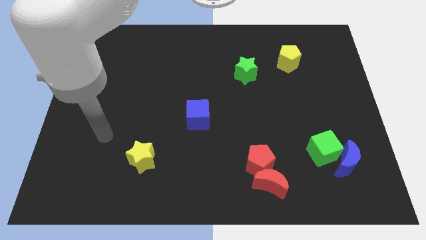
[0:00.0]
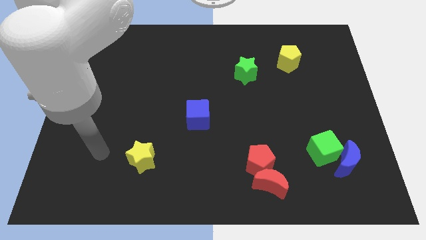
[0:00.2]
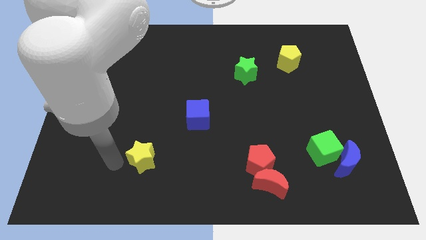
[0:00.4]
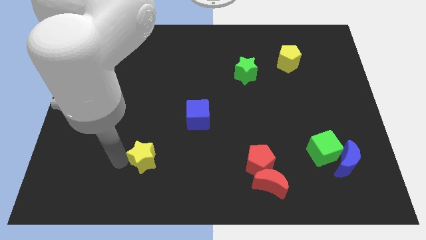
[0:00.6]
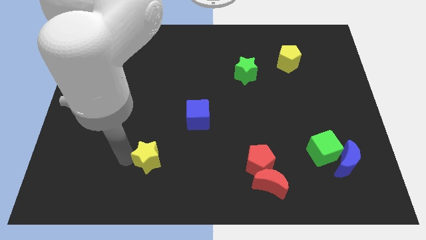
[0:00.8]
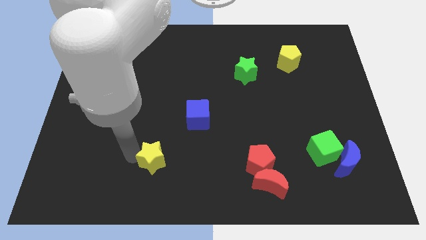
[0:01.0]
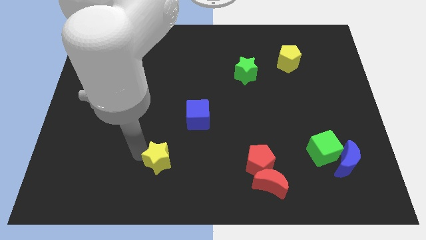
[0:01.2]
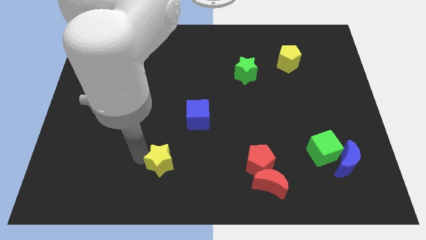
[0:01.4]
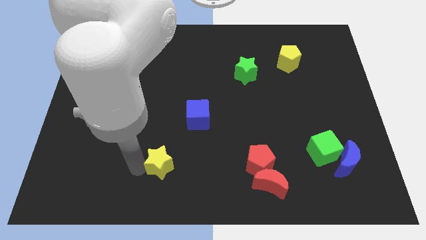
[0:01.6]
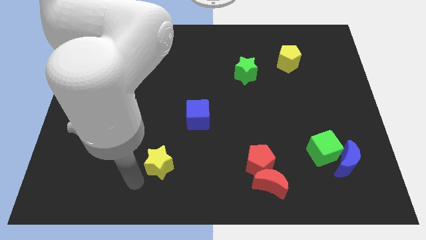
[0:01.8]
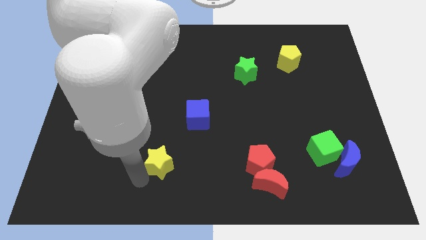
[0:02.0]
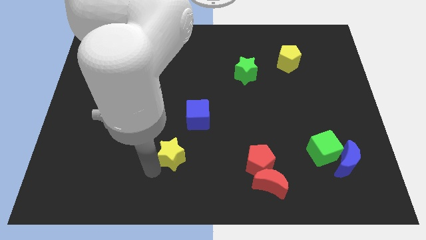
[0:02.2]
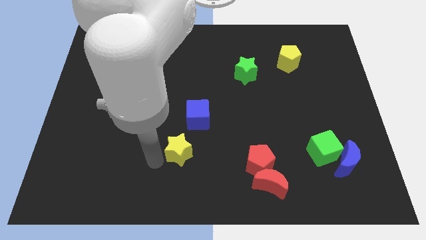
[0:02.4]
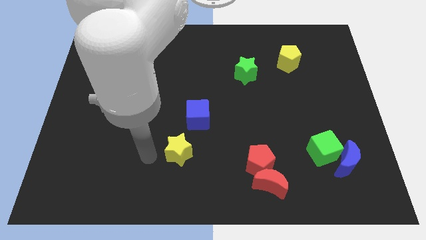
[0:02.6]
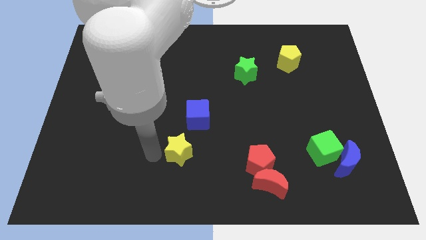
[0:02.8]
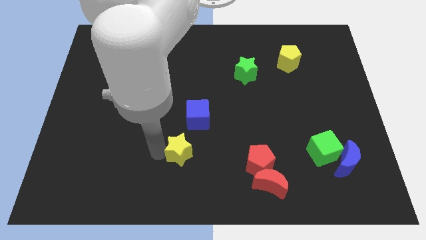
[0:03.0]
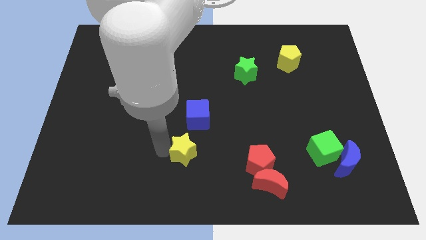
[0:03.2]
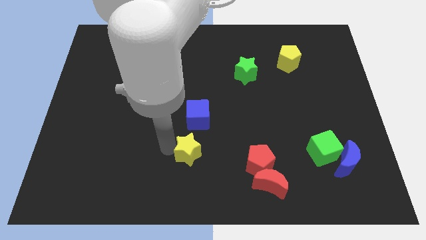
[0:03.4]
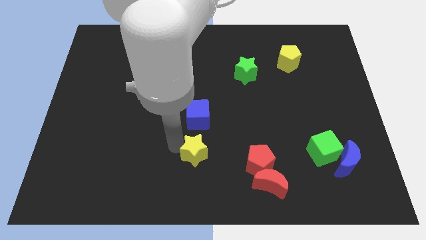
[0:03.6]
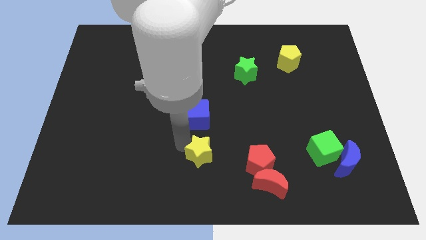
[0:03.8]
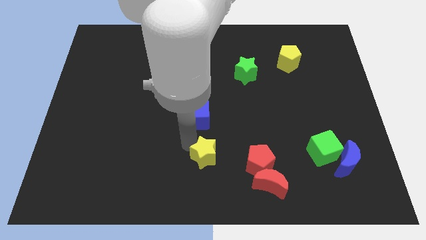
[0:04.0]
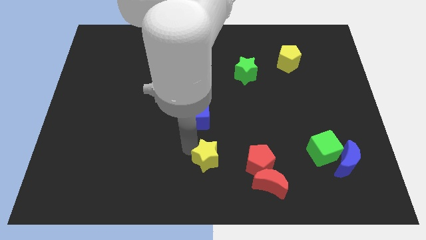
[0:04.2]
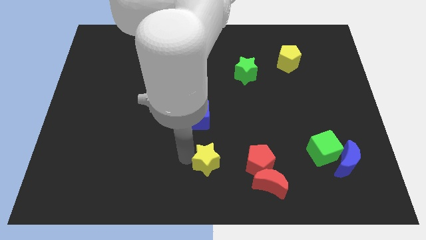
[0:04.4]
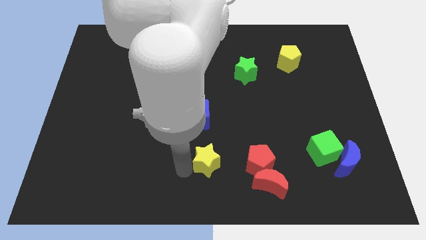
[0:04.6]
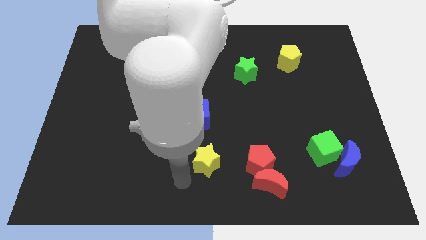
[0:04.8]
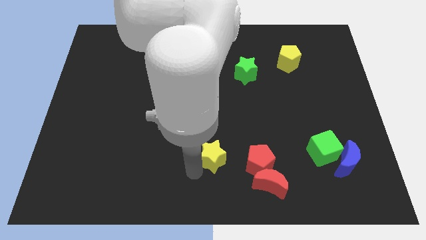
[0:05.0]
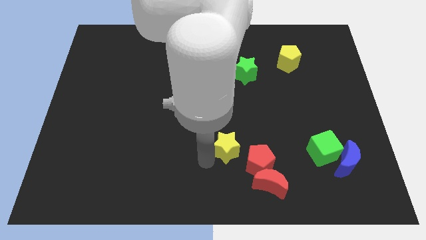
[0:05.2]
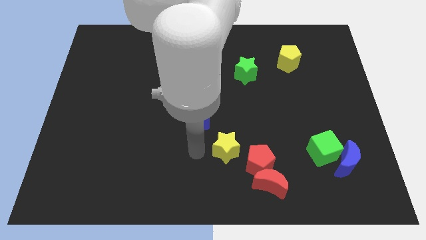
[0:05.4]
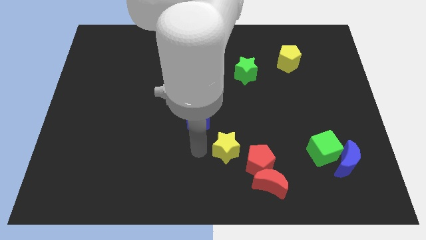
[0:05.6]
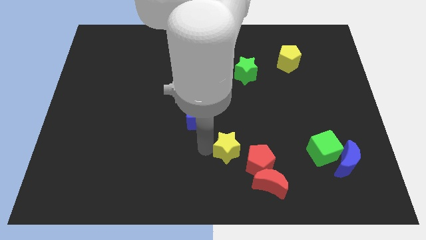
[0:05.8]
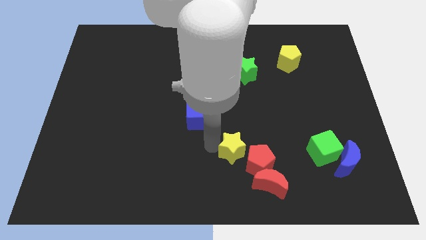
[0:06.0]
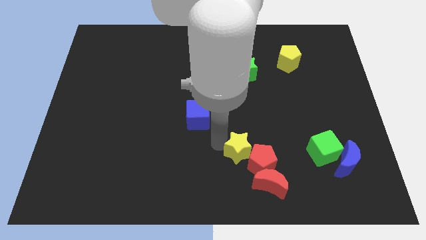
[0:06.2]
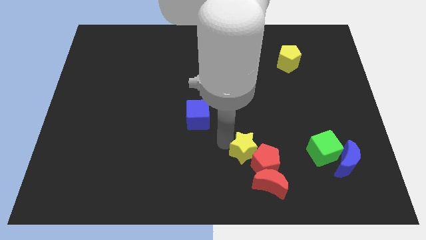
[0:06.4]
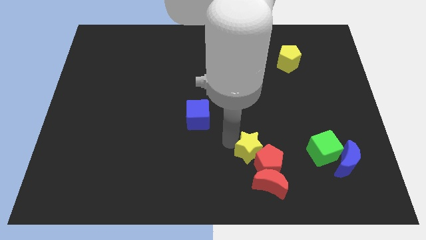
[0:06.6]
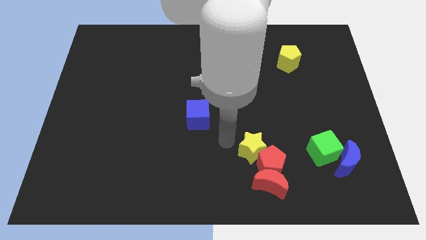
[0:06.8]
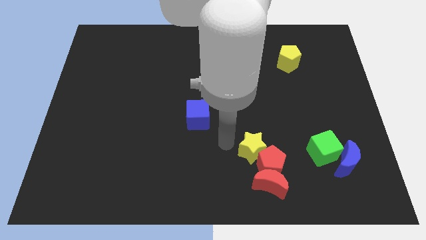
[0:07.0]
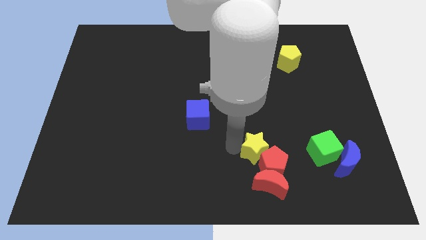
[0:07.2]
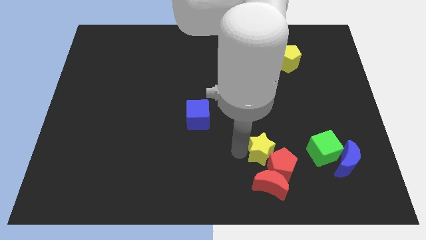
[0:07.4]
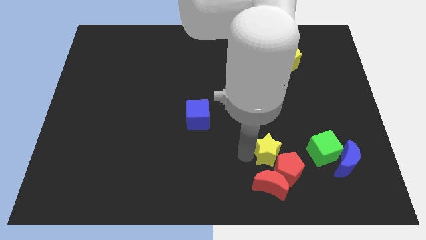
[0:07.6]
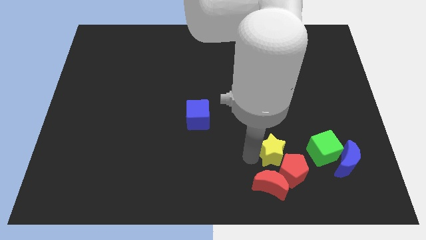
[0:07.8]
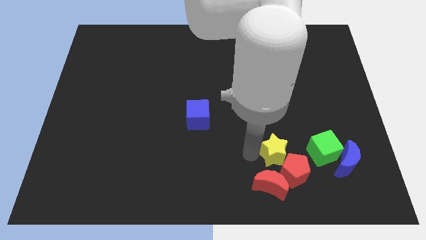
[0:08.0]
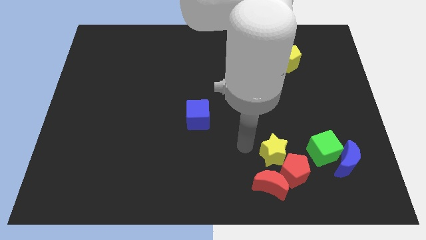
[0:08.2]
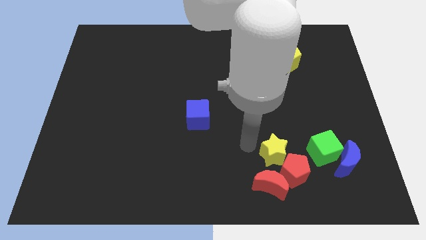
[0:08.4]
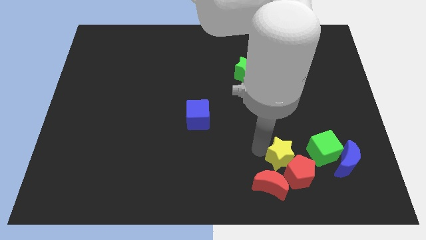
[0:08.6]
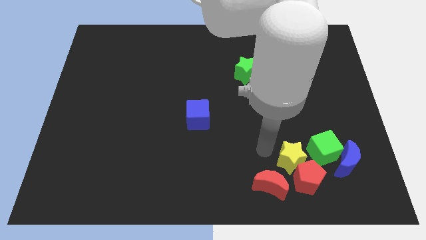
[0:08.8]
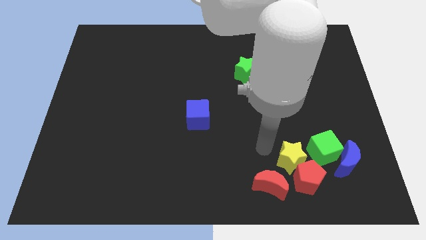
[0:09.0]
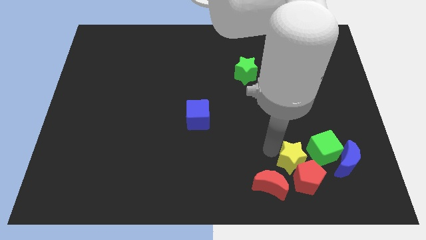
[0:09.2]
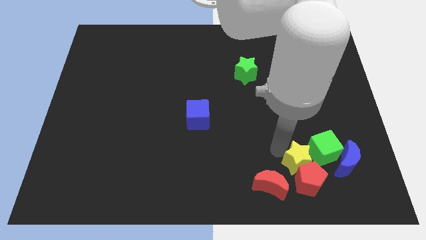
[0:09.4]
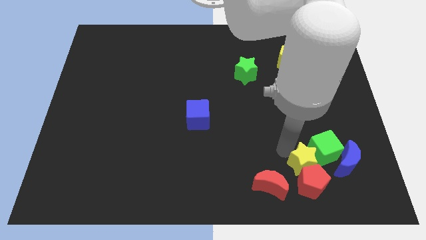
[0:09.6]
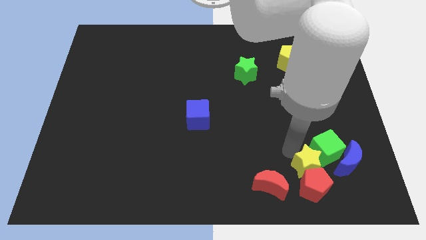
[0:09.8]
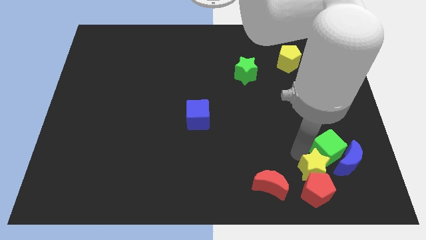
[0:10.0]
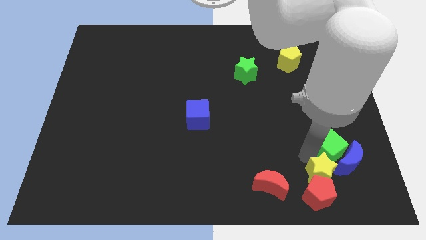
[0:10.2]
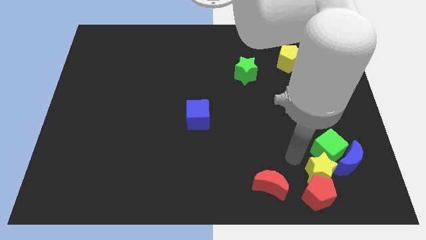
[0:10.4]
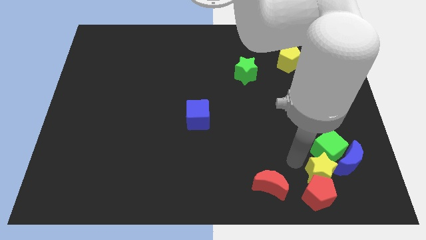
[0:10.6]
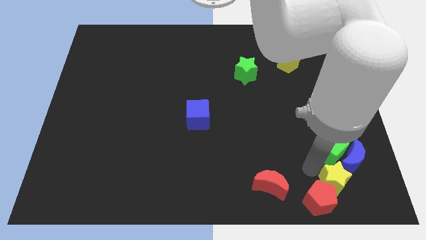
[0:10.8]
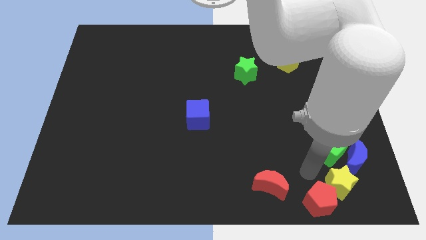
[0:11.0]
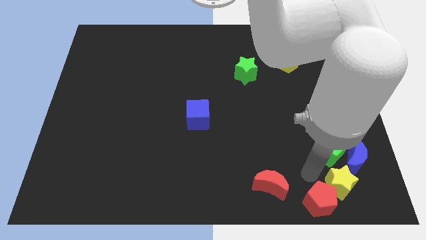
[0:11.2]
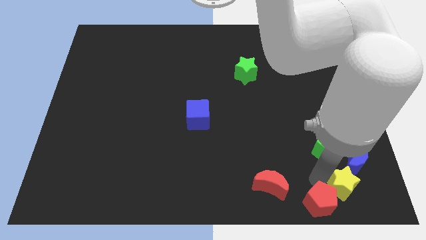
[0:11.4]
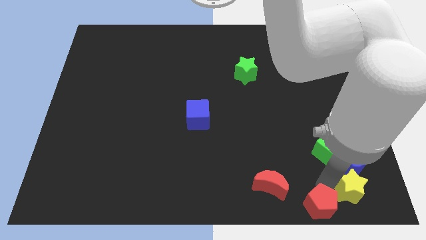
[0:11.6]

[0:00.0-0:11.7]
push the yellow star to the bottom right of the board
